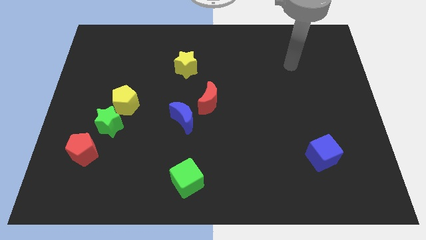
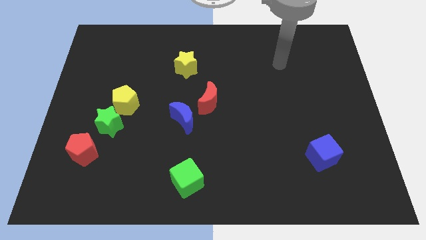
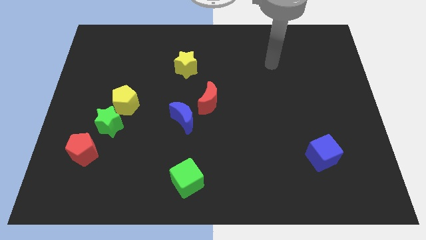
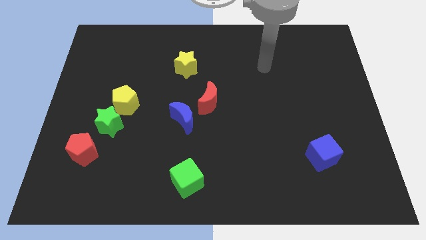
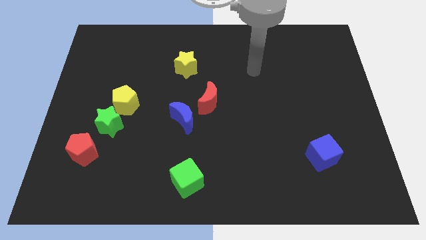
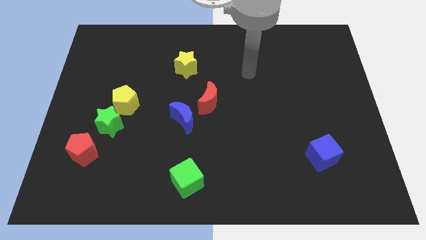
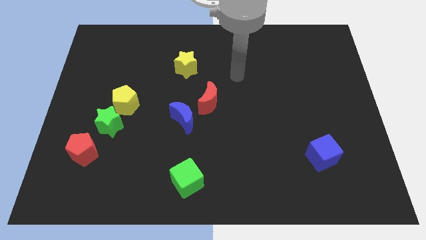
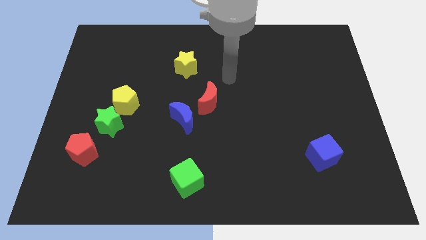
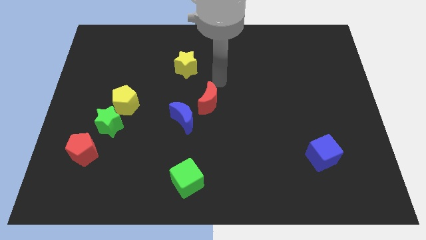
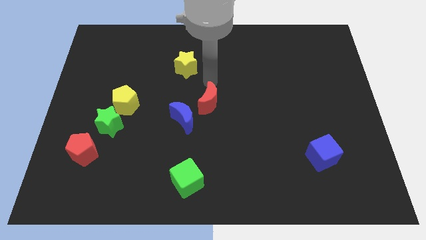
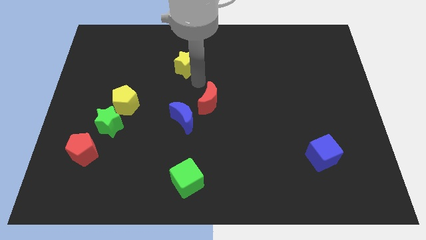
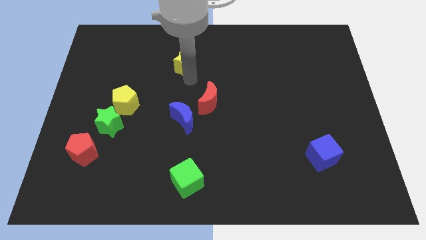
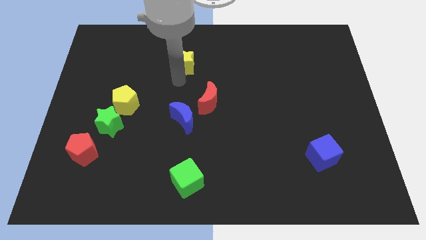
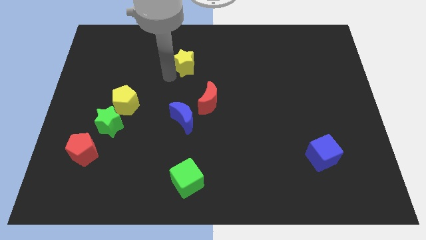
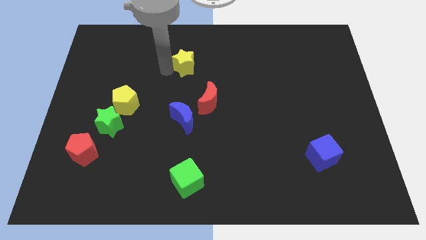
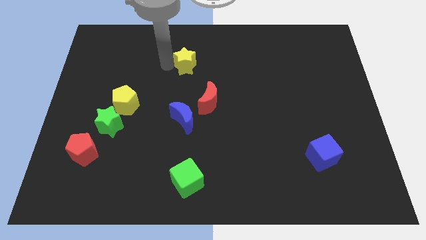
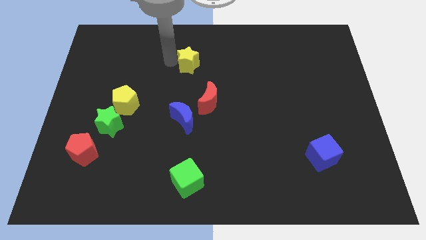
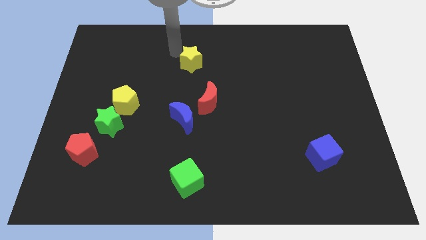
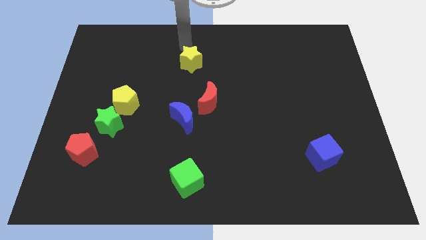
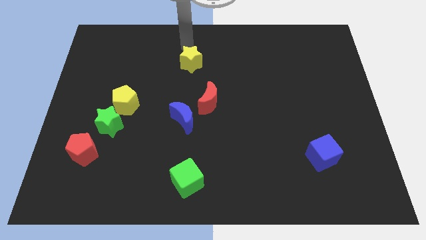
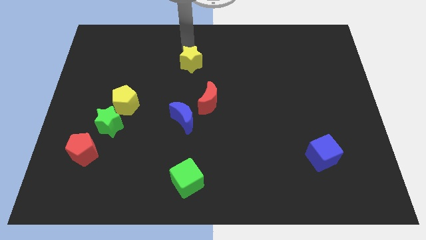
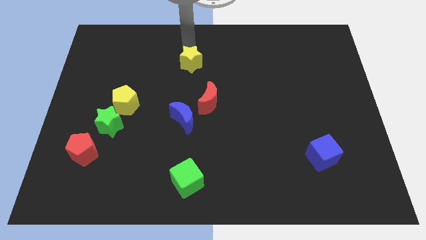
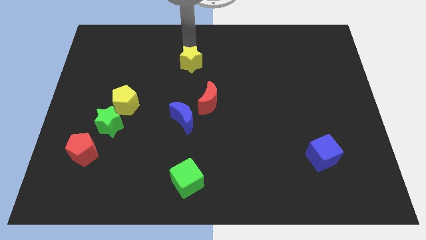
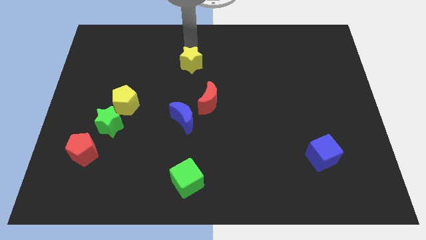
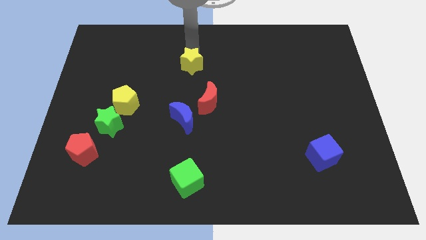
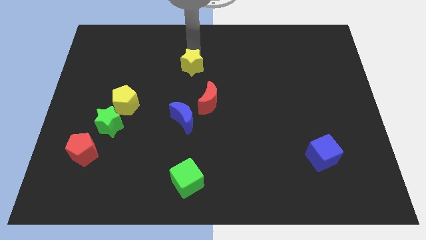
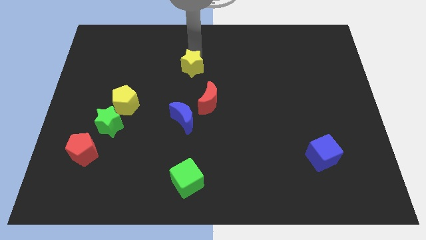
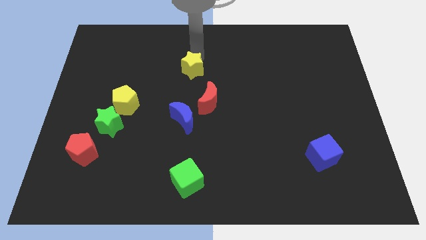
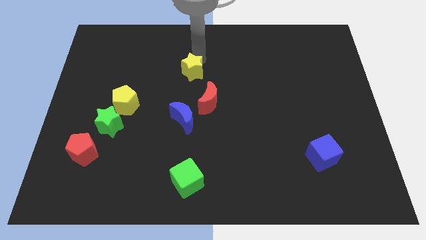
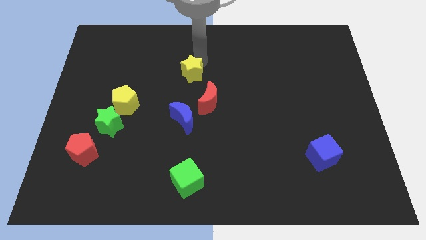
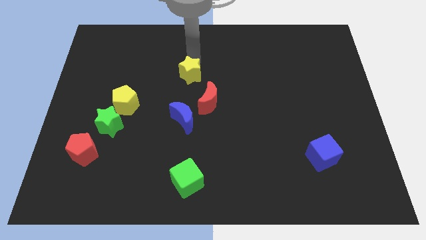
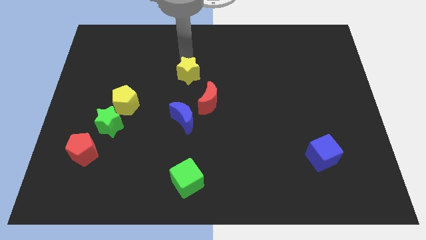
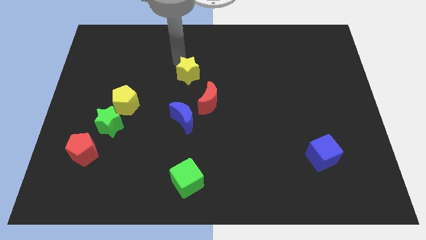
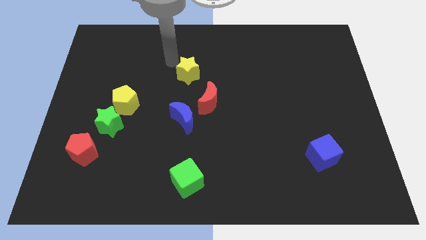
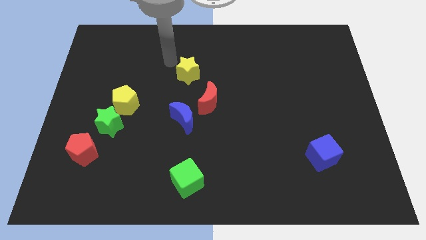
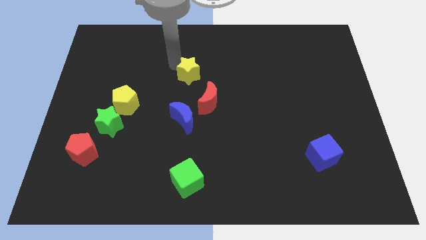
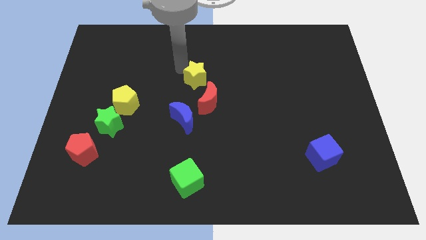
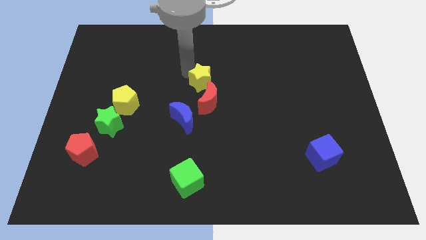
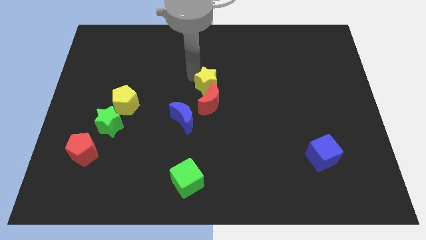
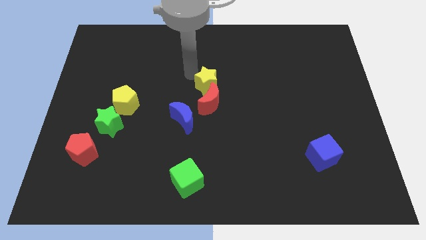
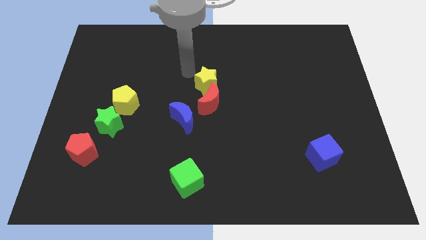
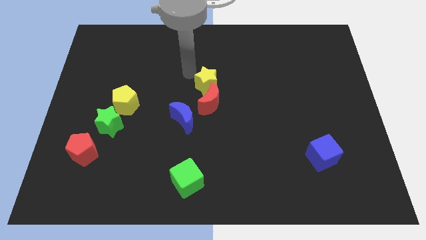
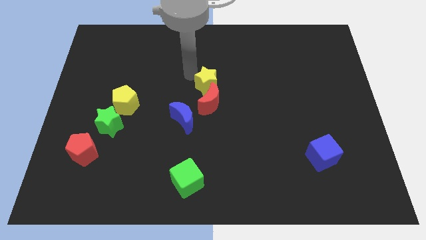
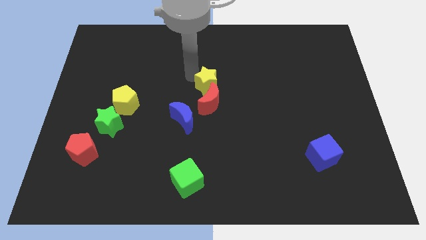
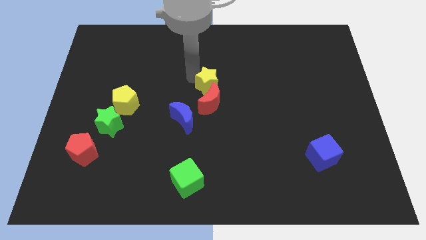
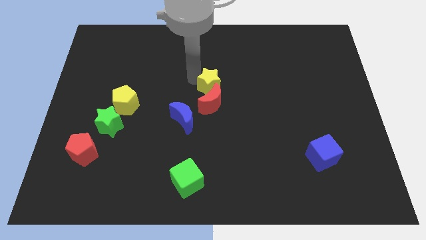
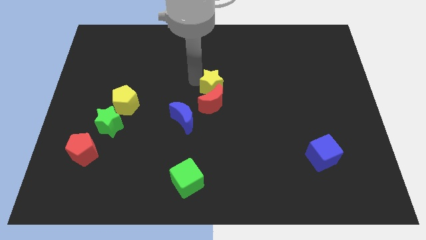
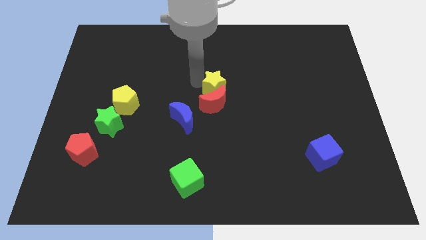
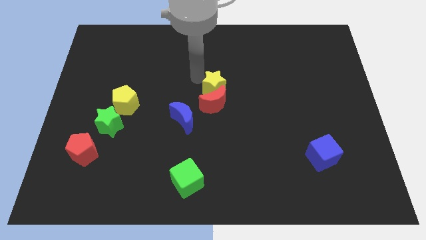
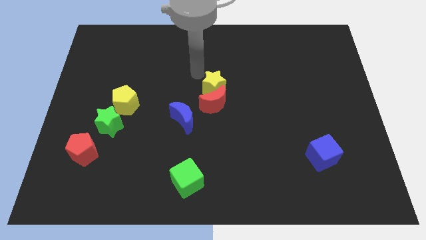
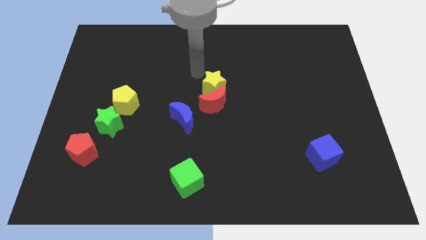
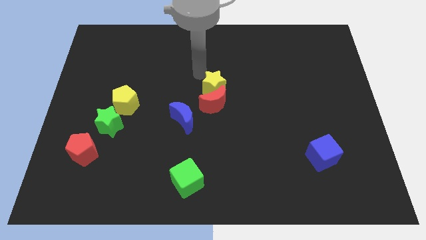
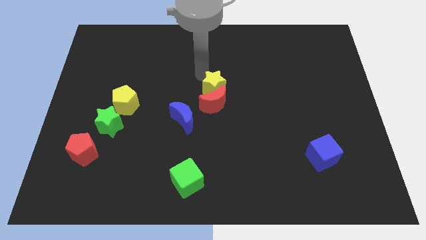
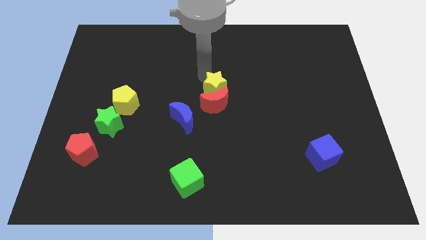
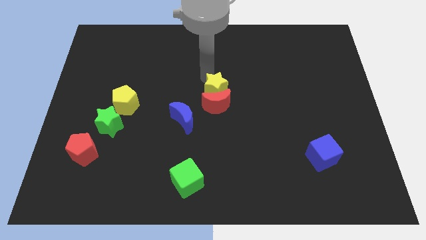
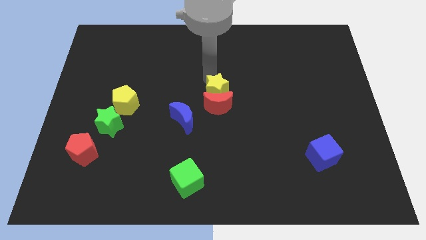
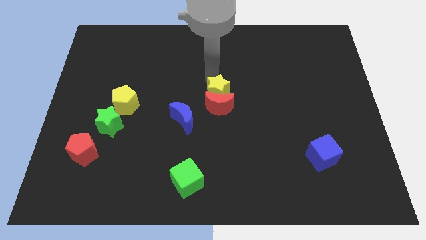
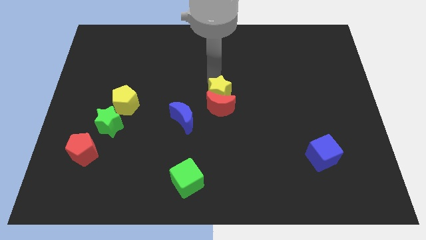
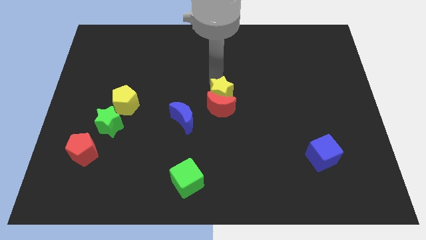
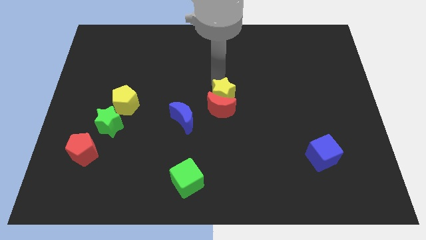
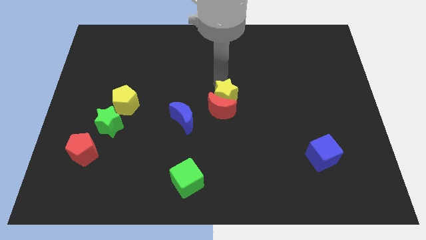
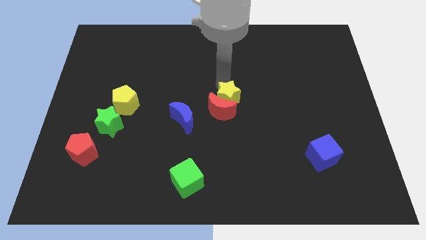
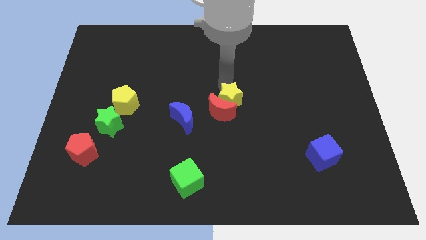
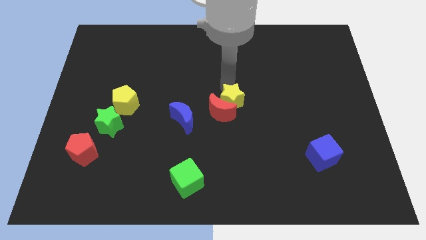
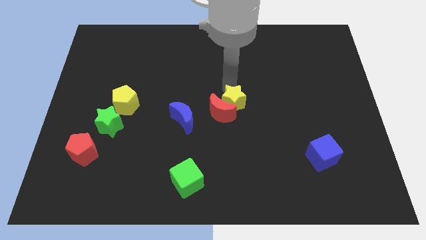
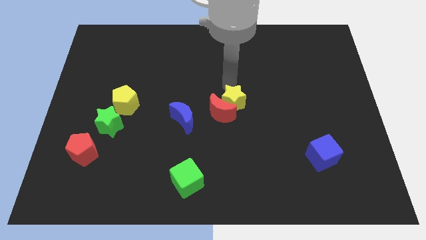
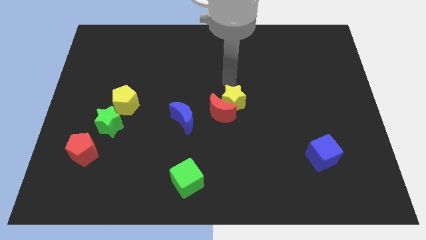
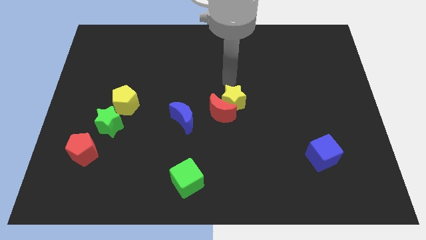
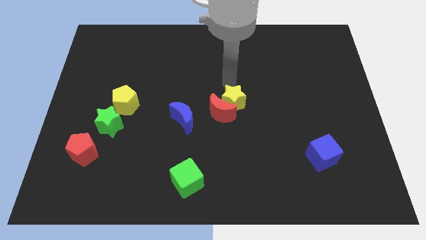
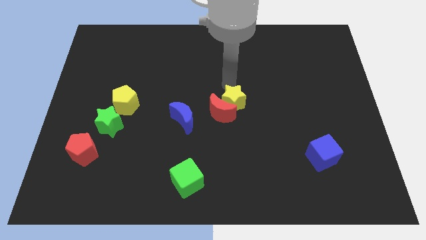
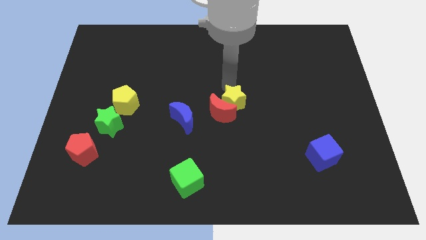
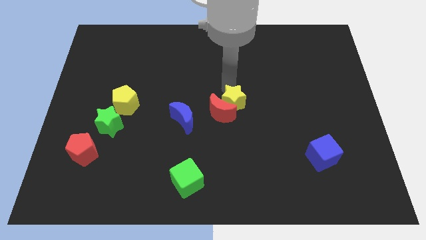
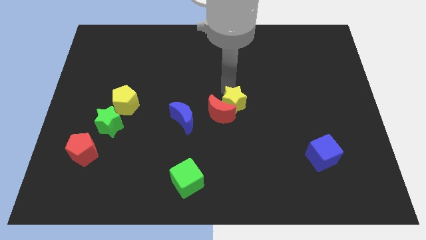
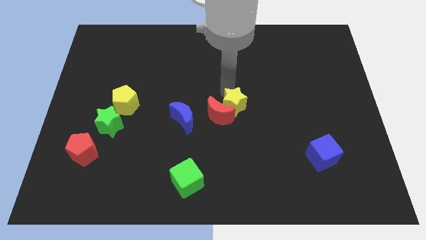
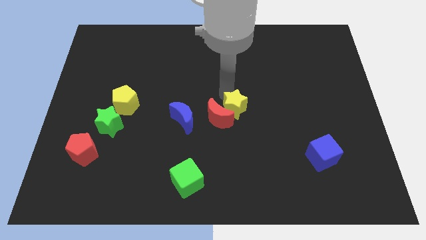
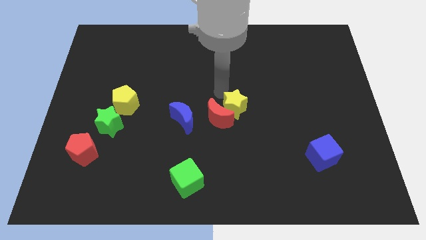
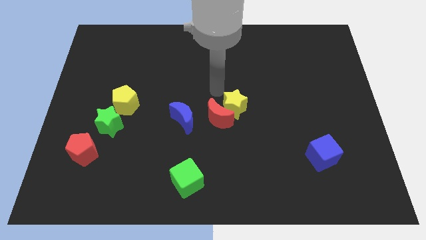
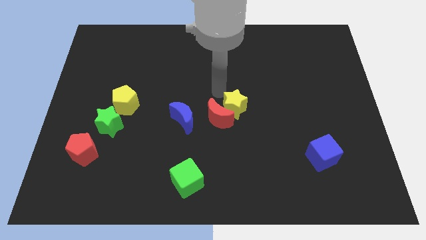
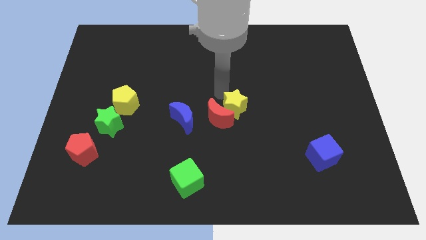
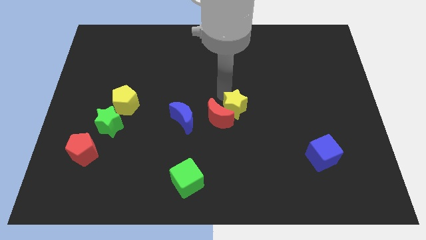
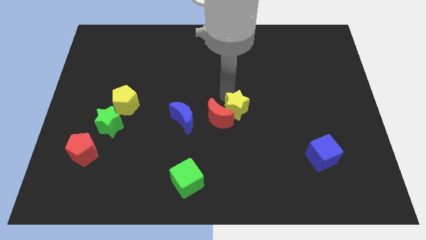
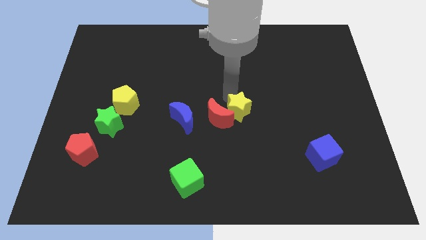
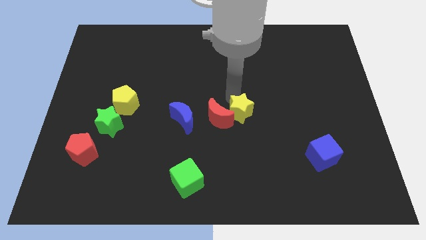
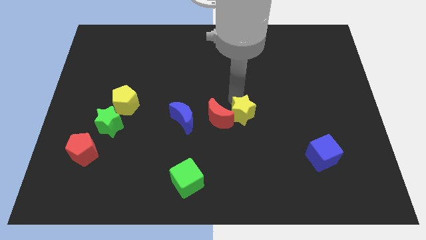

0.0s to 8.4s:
slide the yellow star down and right
